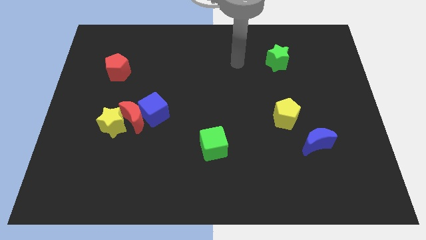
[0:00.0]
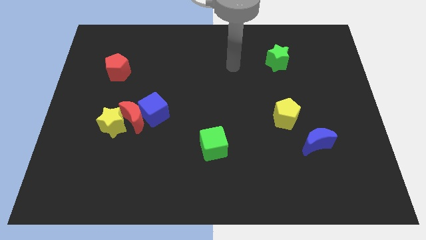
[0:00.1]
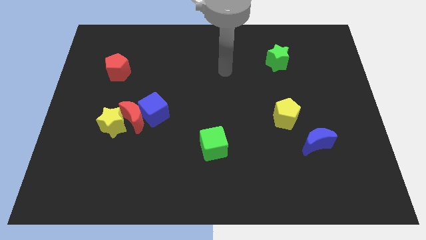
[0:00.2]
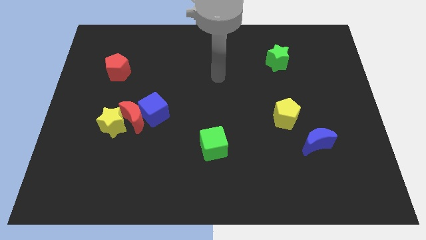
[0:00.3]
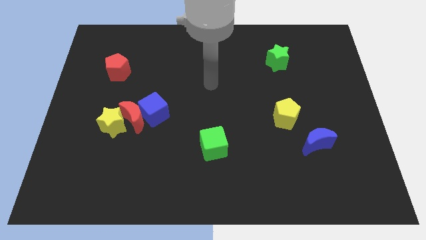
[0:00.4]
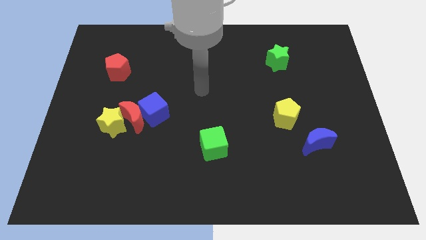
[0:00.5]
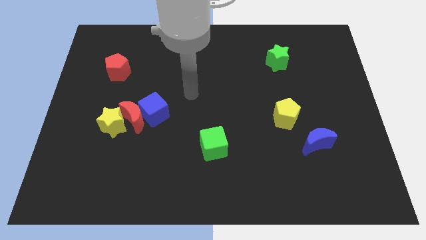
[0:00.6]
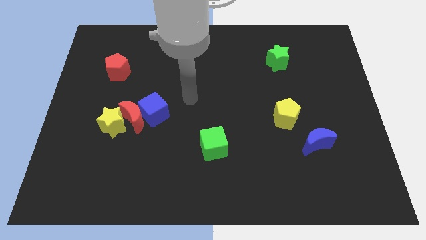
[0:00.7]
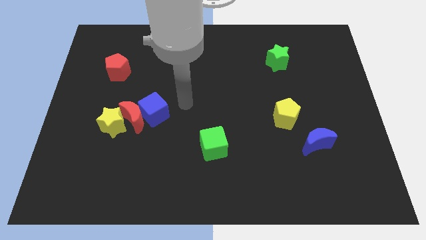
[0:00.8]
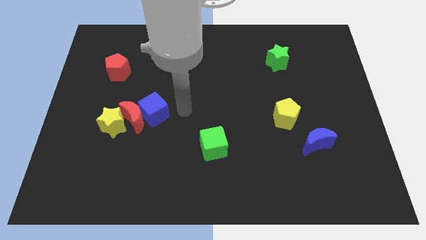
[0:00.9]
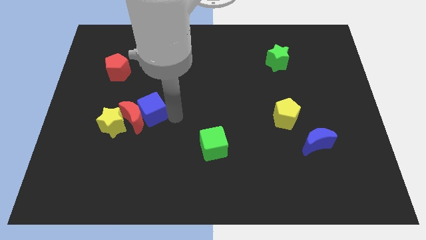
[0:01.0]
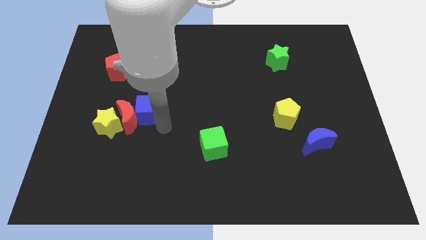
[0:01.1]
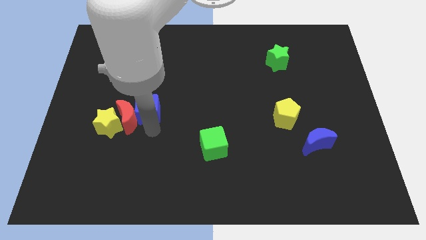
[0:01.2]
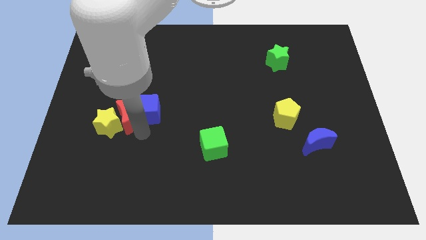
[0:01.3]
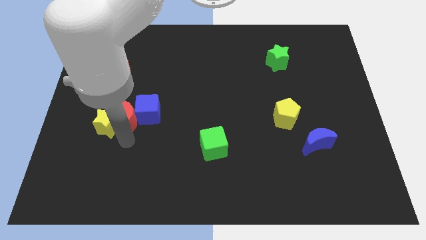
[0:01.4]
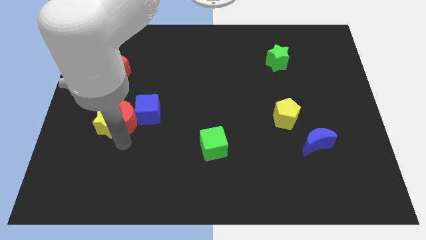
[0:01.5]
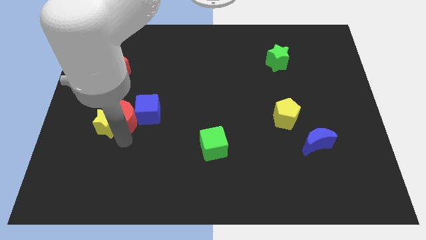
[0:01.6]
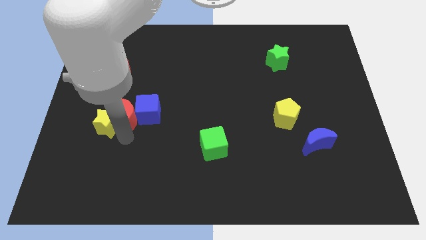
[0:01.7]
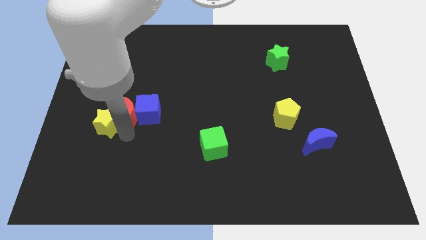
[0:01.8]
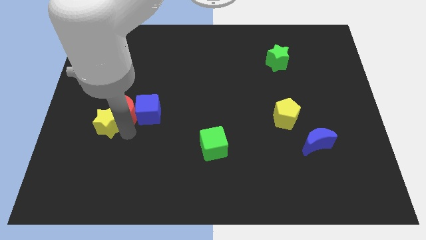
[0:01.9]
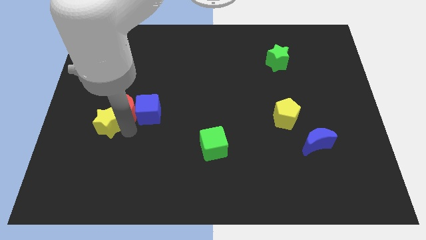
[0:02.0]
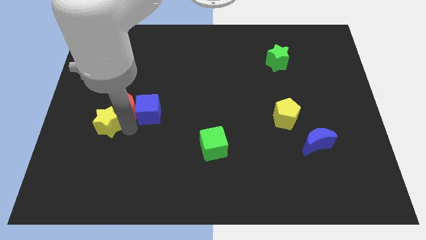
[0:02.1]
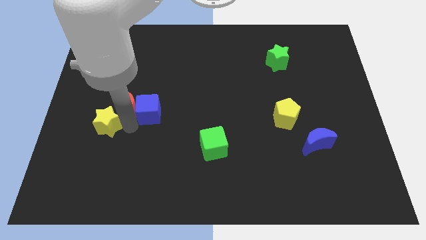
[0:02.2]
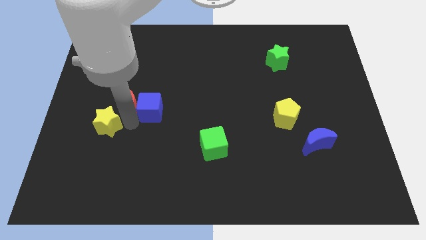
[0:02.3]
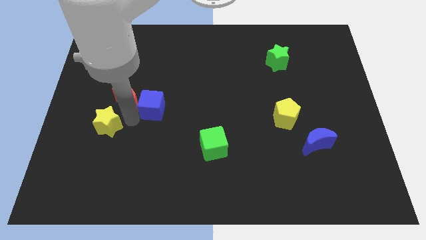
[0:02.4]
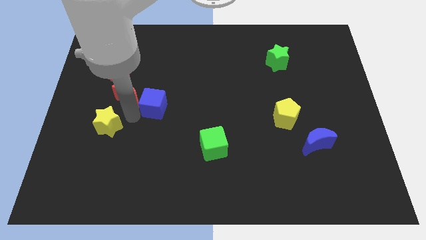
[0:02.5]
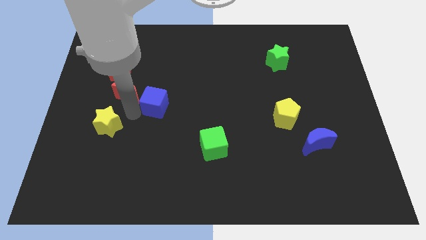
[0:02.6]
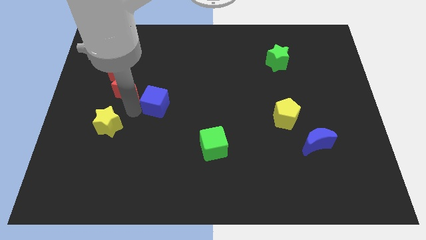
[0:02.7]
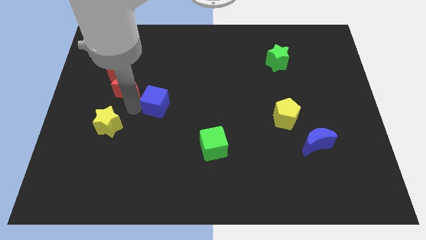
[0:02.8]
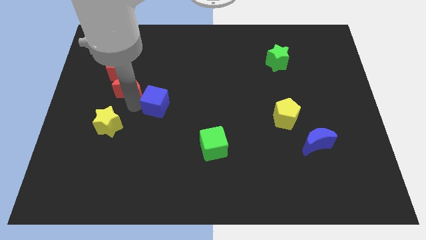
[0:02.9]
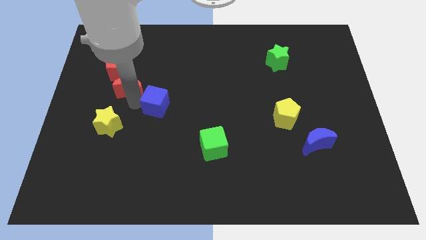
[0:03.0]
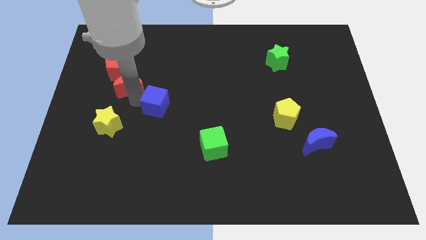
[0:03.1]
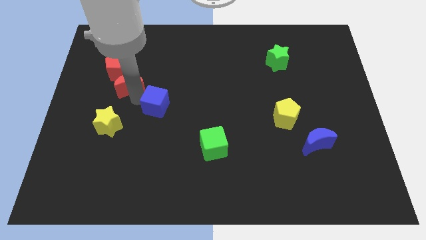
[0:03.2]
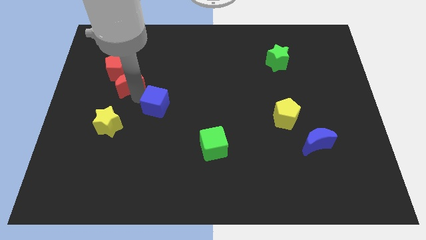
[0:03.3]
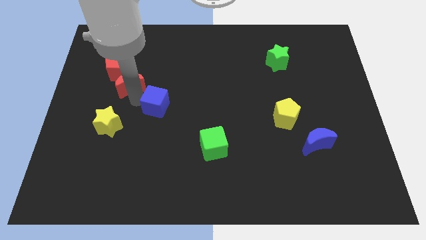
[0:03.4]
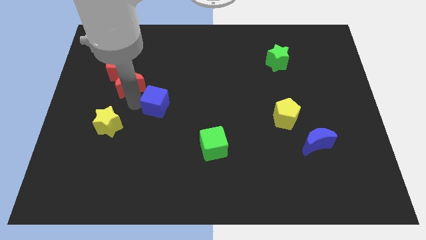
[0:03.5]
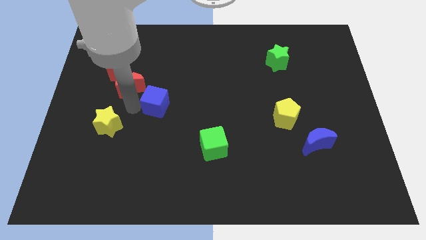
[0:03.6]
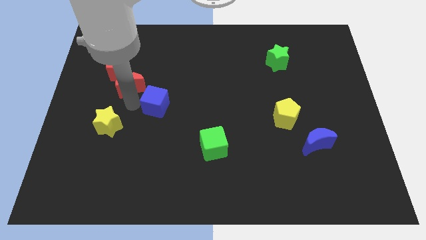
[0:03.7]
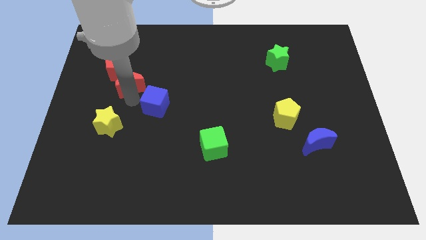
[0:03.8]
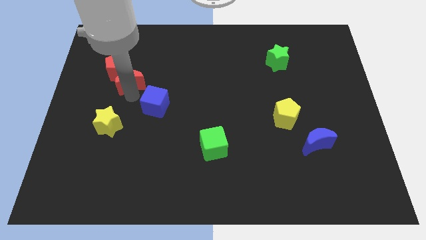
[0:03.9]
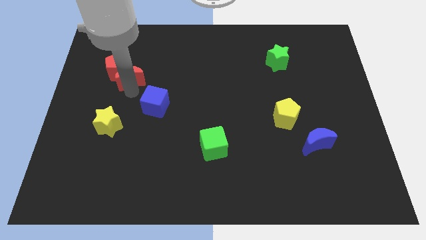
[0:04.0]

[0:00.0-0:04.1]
move the red moon away from the blue cube and yellow star

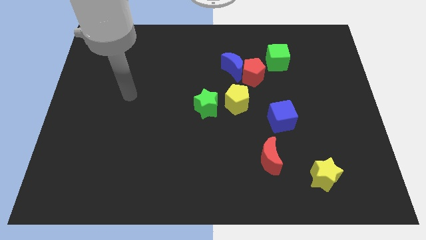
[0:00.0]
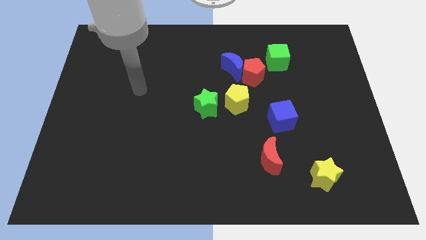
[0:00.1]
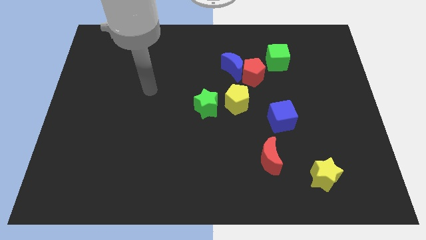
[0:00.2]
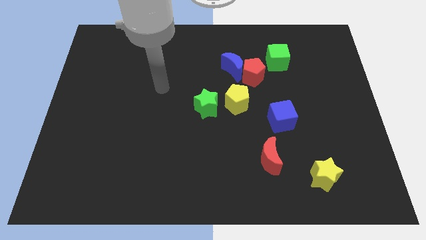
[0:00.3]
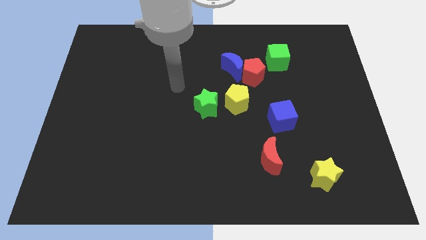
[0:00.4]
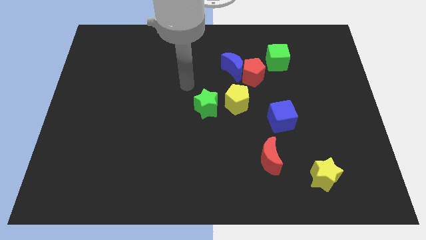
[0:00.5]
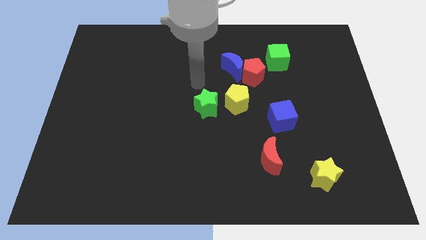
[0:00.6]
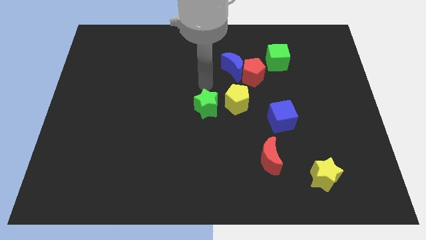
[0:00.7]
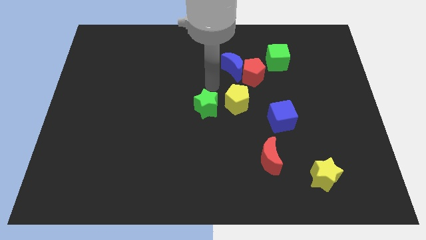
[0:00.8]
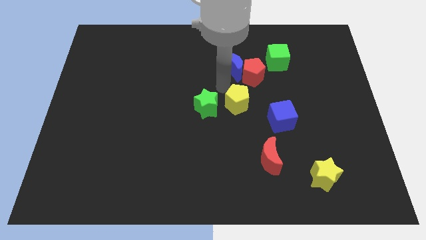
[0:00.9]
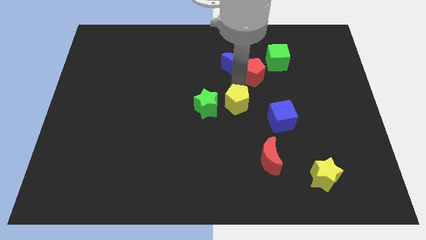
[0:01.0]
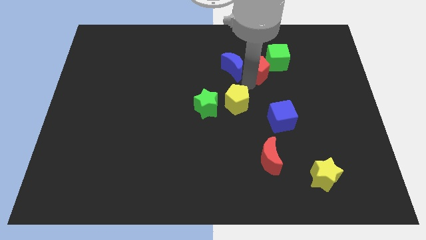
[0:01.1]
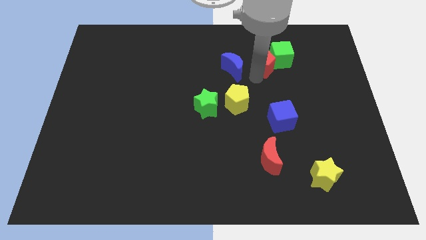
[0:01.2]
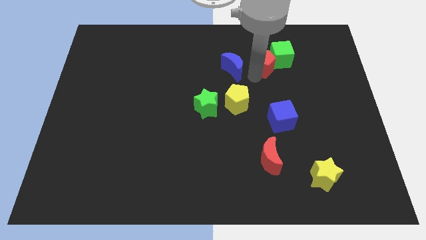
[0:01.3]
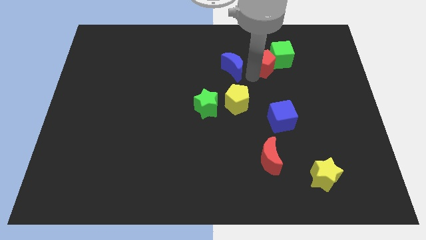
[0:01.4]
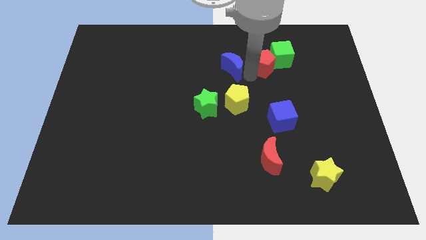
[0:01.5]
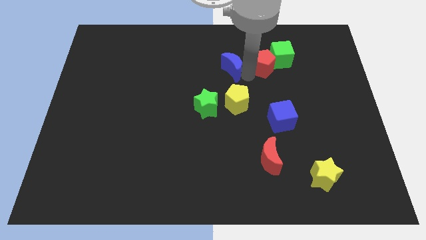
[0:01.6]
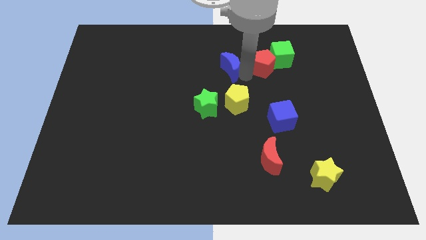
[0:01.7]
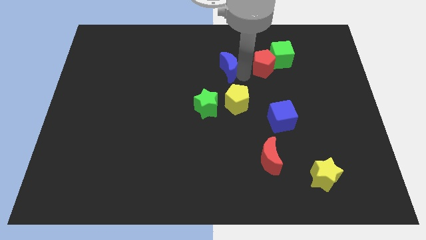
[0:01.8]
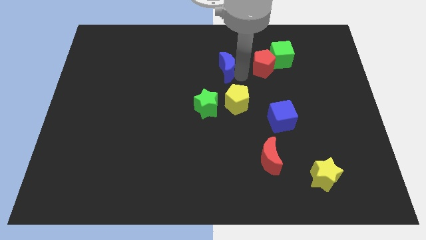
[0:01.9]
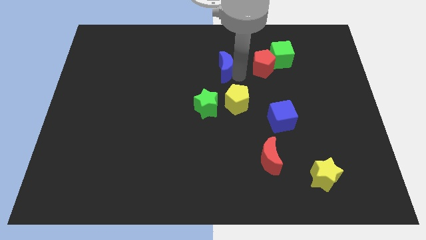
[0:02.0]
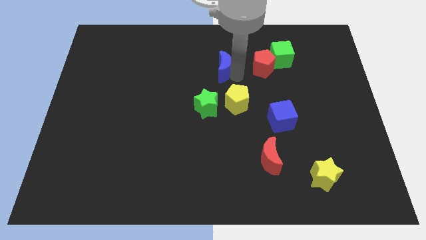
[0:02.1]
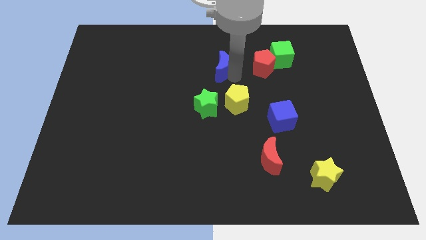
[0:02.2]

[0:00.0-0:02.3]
move the blue moon away from the red pentagon

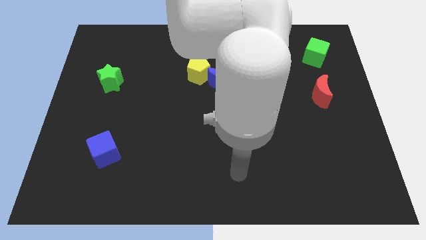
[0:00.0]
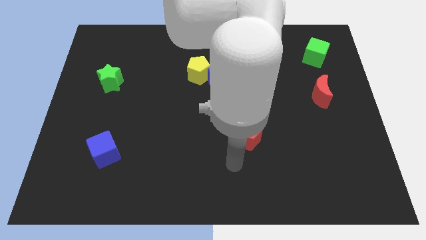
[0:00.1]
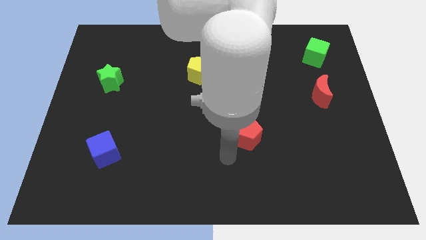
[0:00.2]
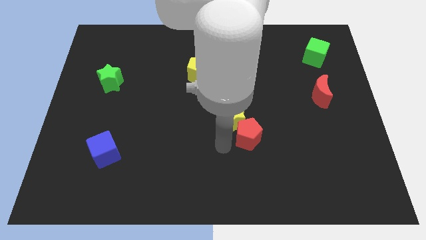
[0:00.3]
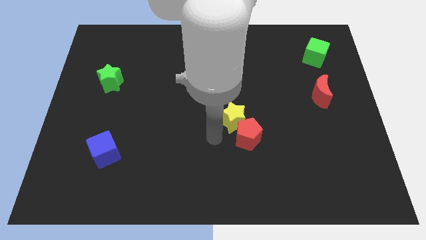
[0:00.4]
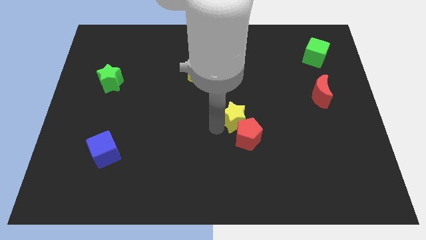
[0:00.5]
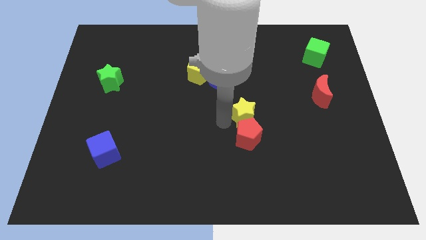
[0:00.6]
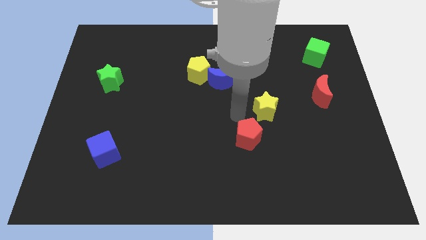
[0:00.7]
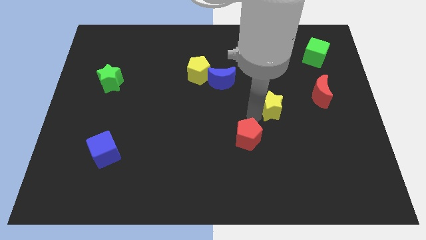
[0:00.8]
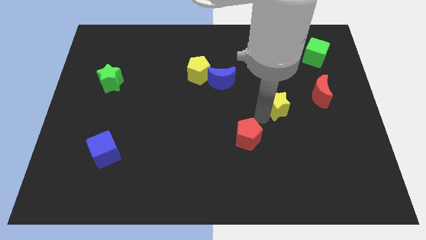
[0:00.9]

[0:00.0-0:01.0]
pull the red pentagon apart from the yellow star

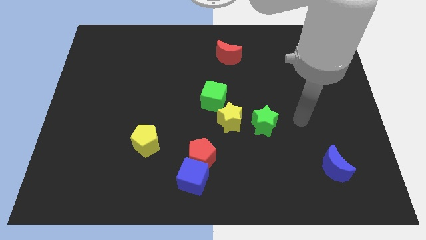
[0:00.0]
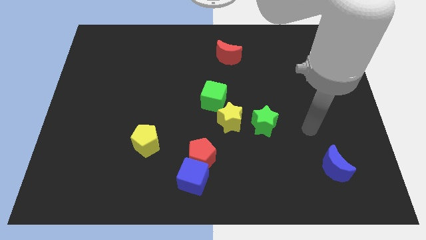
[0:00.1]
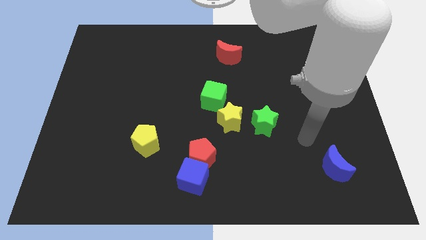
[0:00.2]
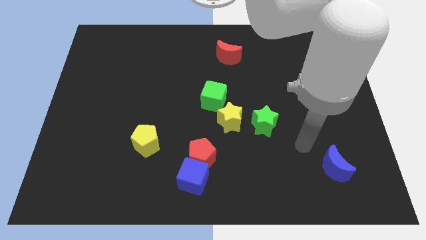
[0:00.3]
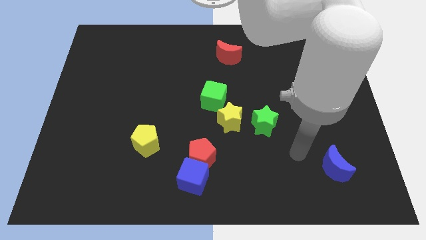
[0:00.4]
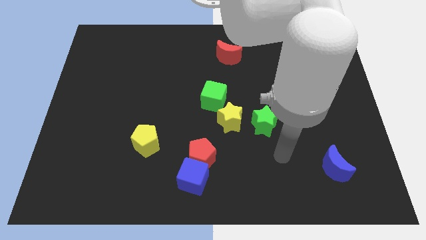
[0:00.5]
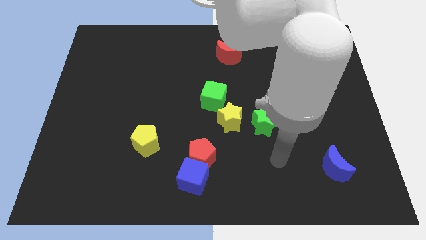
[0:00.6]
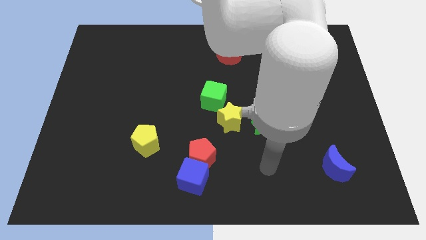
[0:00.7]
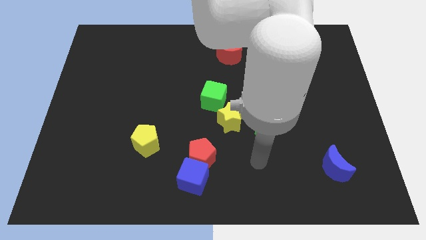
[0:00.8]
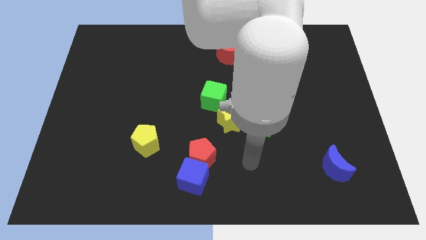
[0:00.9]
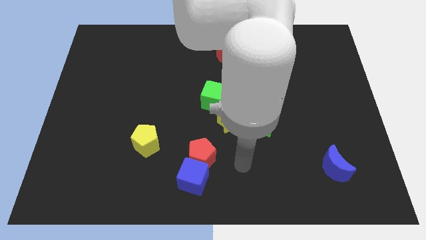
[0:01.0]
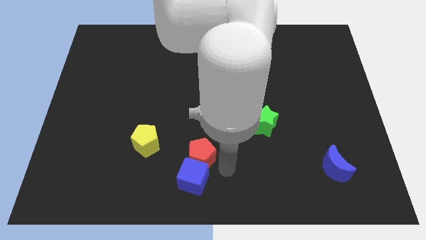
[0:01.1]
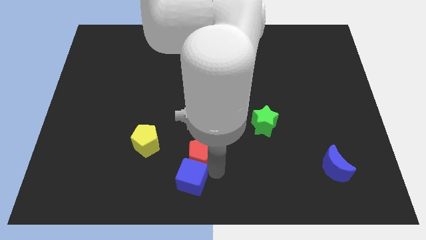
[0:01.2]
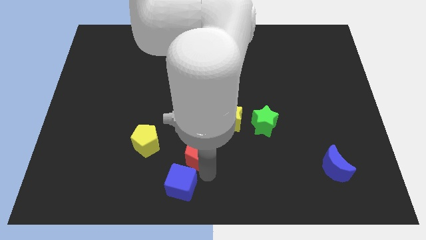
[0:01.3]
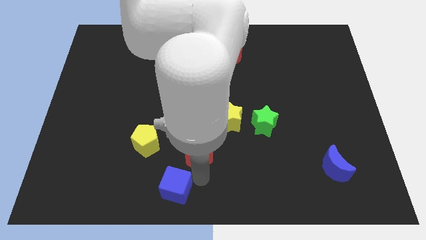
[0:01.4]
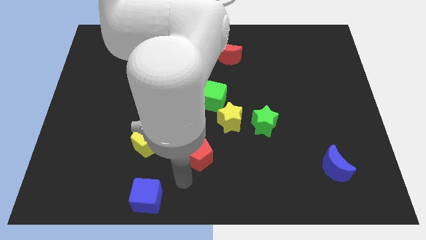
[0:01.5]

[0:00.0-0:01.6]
pull the red pentagon apart from the blue cube

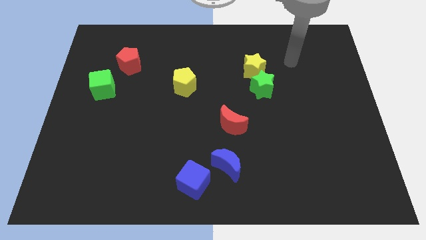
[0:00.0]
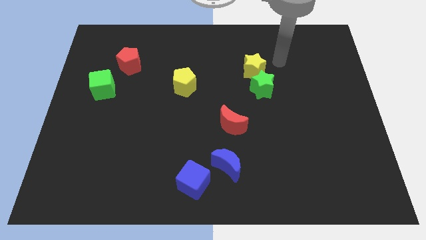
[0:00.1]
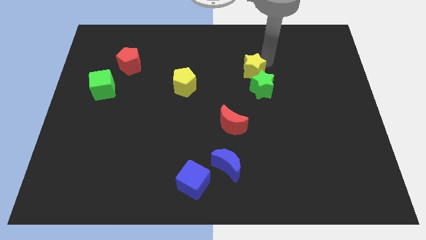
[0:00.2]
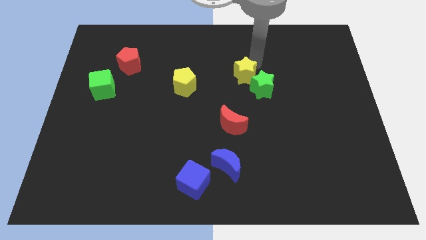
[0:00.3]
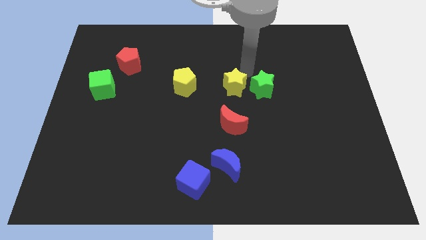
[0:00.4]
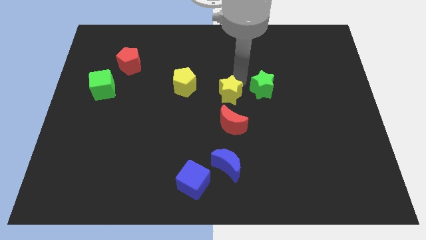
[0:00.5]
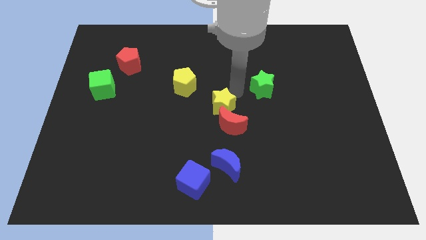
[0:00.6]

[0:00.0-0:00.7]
move the green star away from the yellow star
